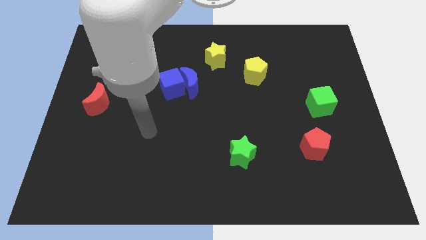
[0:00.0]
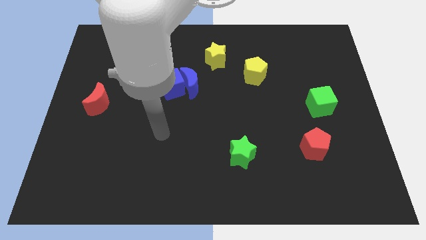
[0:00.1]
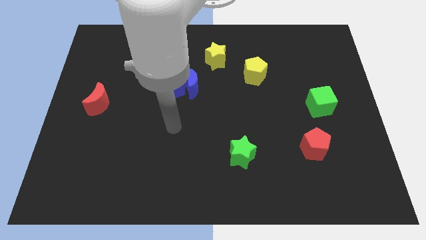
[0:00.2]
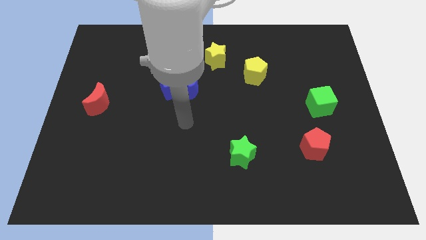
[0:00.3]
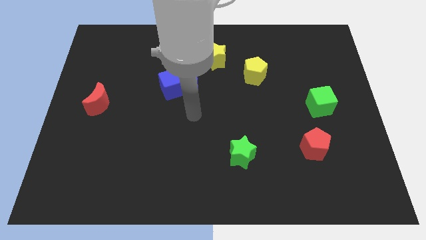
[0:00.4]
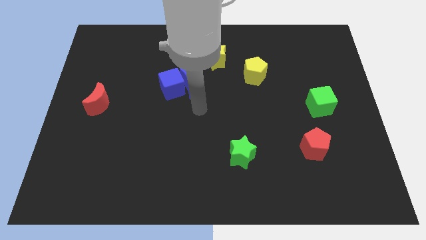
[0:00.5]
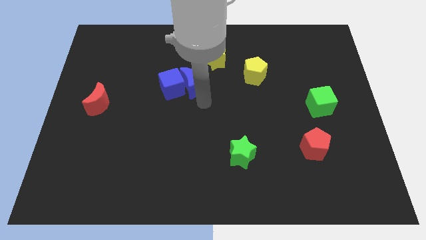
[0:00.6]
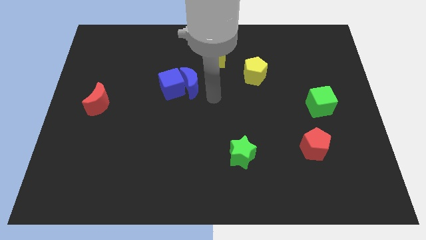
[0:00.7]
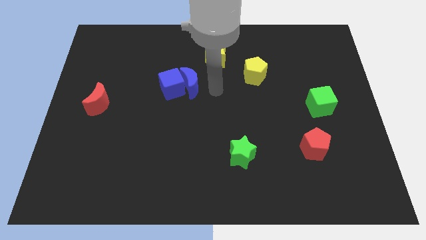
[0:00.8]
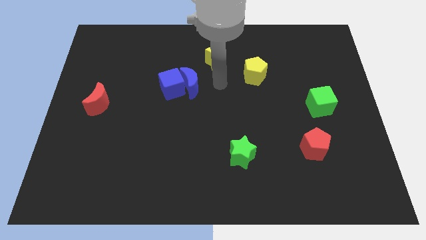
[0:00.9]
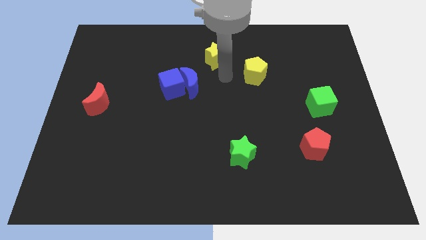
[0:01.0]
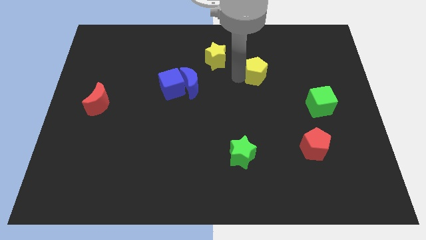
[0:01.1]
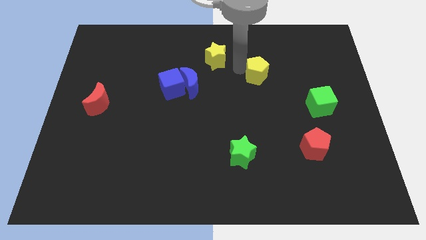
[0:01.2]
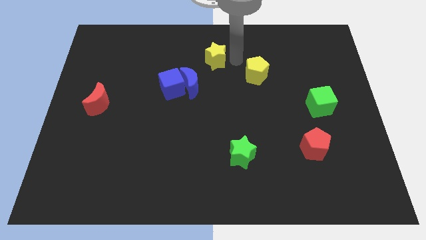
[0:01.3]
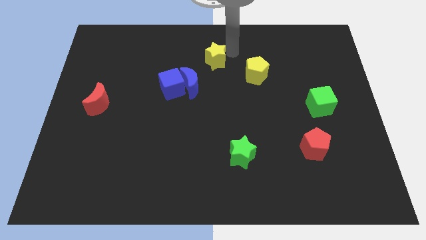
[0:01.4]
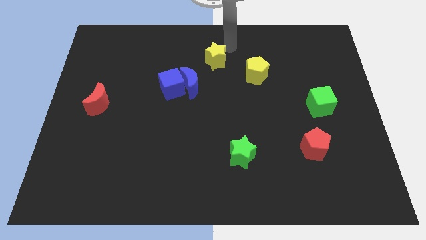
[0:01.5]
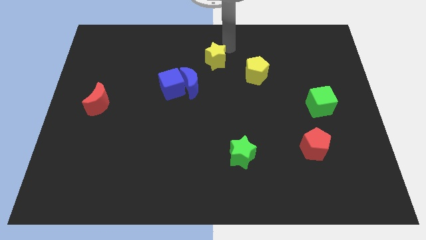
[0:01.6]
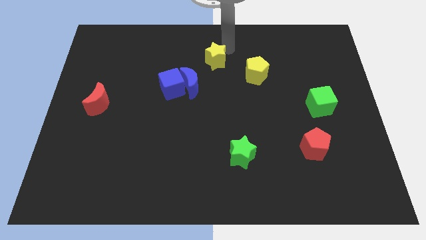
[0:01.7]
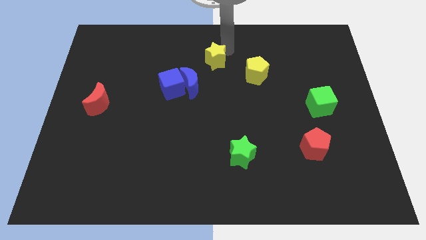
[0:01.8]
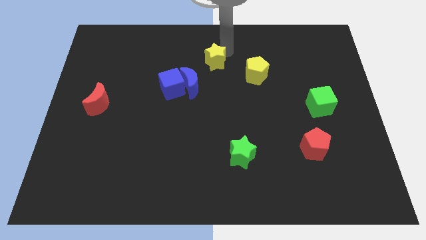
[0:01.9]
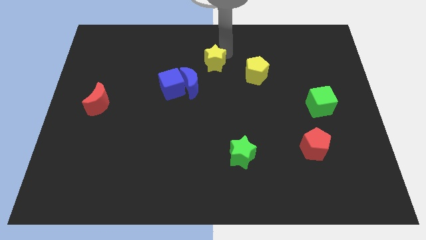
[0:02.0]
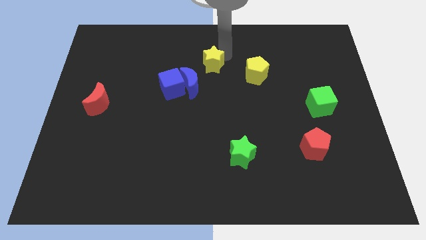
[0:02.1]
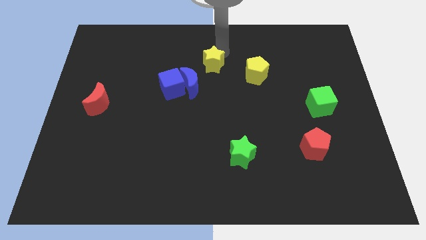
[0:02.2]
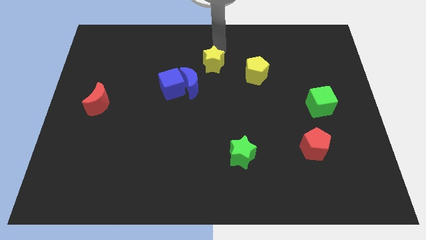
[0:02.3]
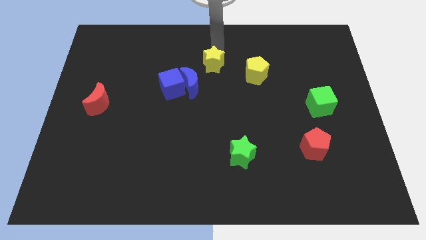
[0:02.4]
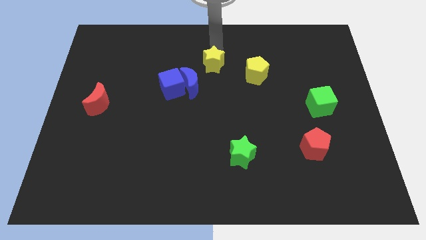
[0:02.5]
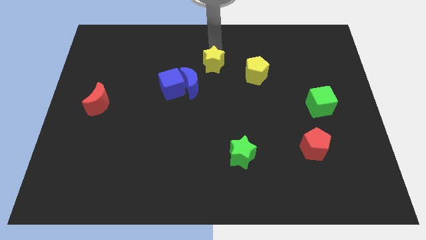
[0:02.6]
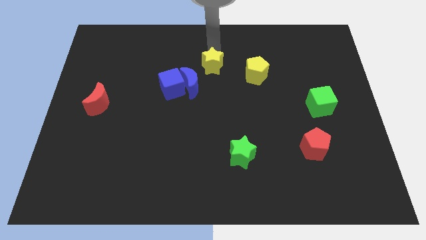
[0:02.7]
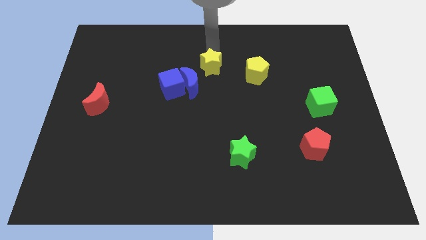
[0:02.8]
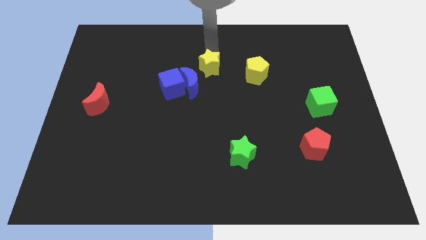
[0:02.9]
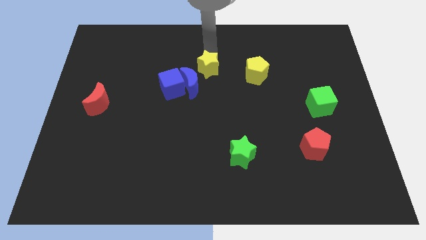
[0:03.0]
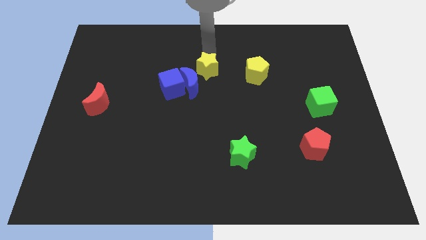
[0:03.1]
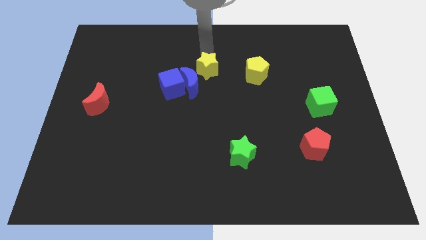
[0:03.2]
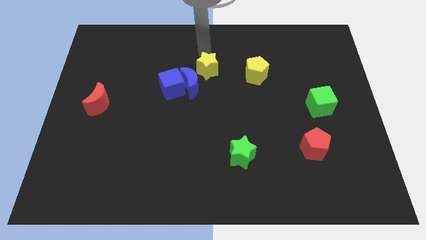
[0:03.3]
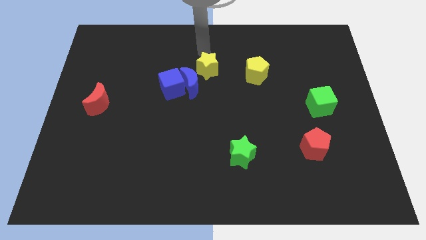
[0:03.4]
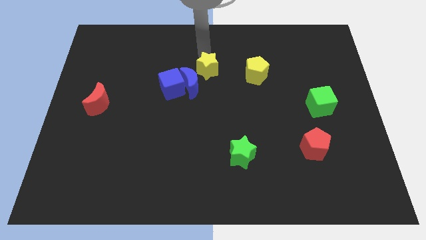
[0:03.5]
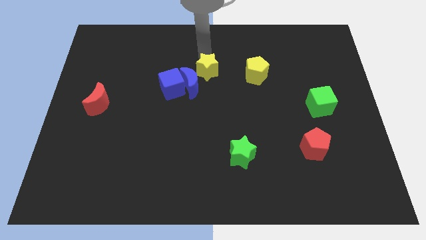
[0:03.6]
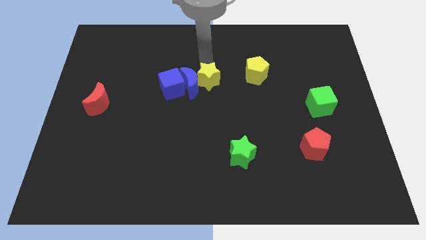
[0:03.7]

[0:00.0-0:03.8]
slide the yellow star down a little bit

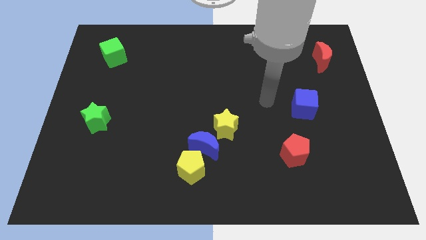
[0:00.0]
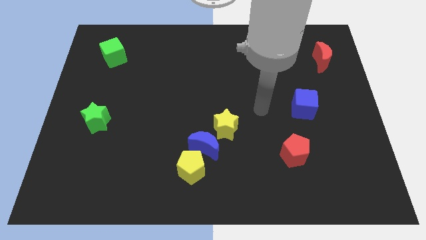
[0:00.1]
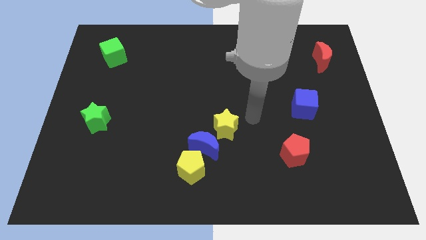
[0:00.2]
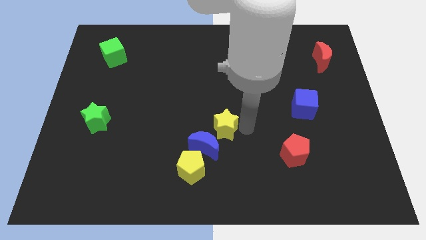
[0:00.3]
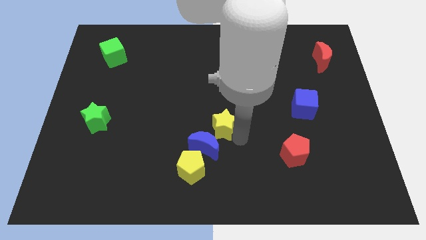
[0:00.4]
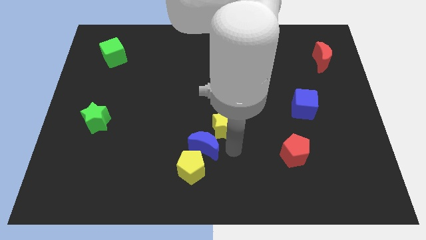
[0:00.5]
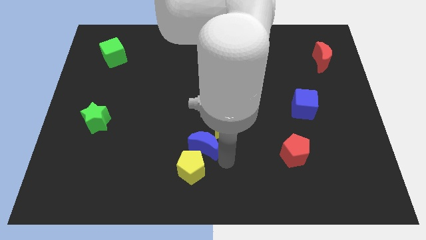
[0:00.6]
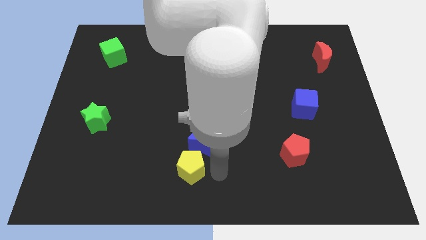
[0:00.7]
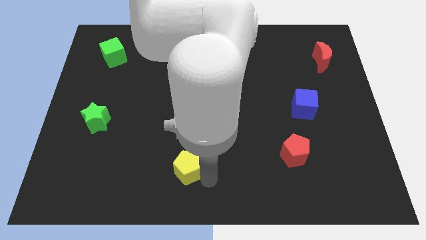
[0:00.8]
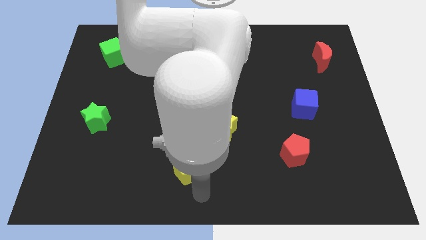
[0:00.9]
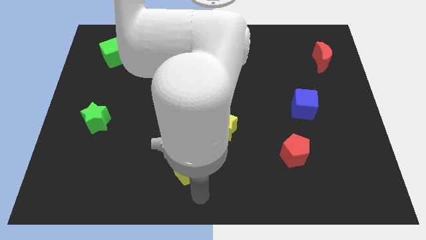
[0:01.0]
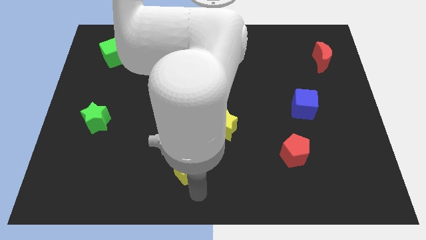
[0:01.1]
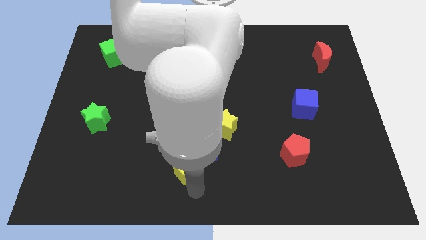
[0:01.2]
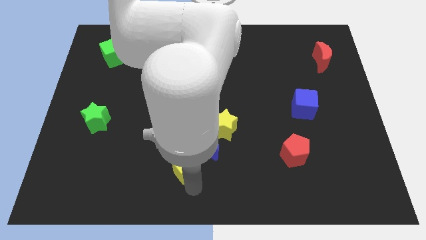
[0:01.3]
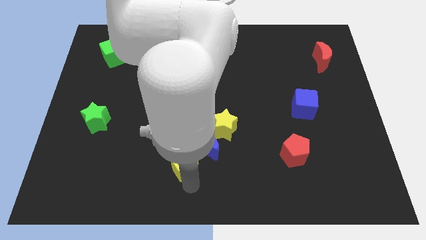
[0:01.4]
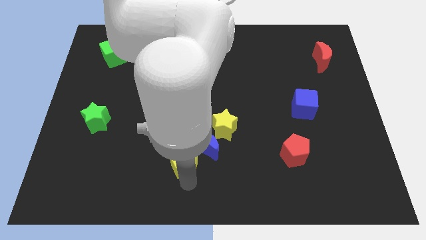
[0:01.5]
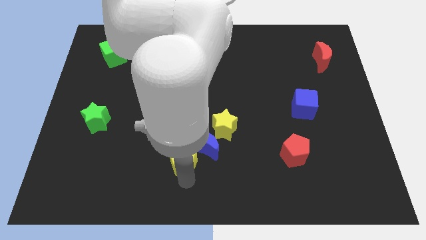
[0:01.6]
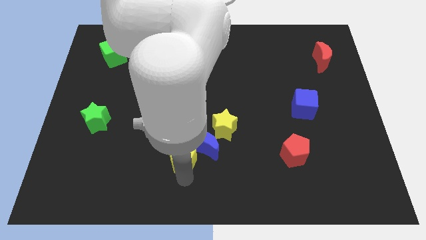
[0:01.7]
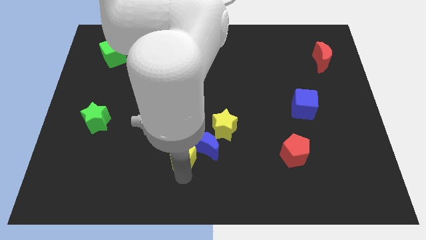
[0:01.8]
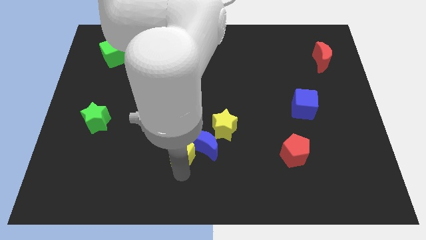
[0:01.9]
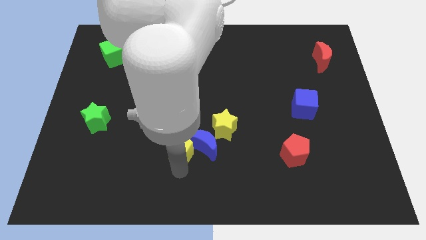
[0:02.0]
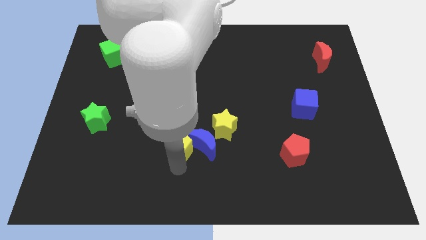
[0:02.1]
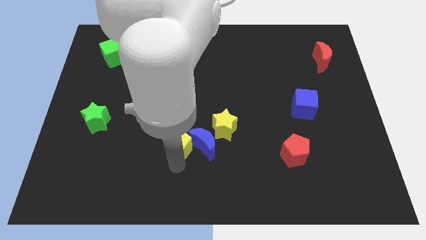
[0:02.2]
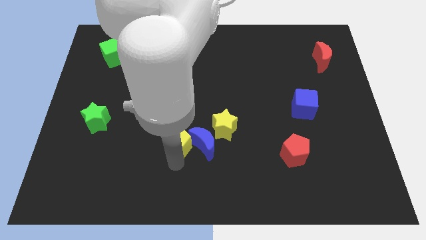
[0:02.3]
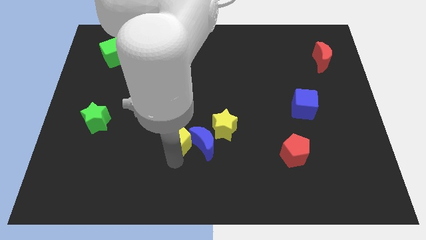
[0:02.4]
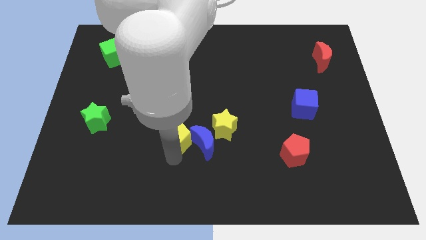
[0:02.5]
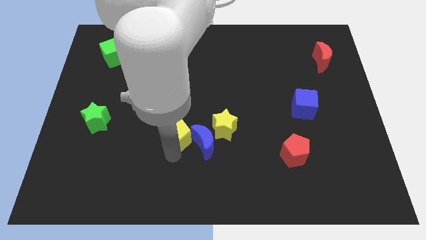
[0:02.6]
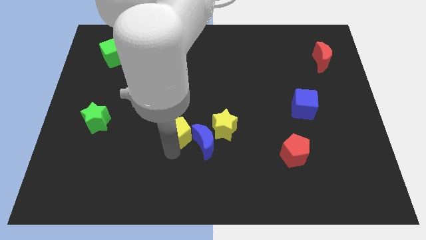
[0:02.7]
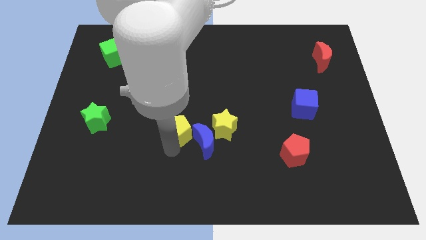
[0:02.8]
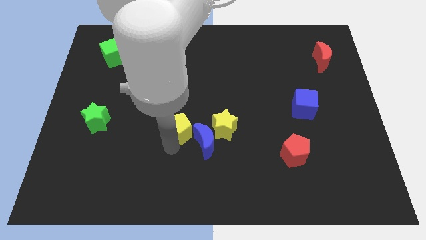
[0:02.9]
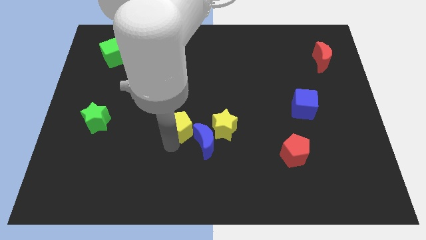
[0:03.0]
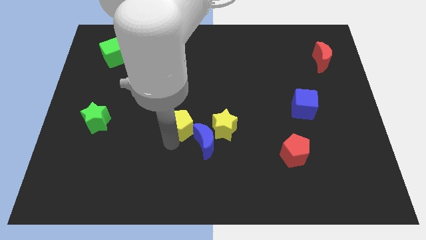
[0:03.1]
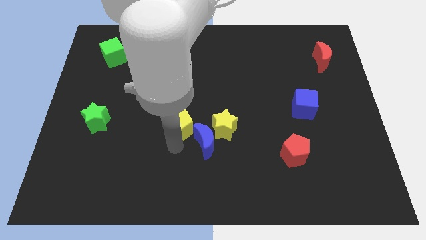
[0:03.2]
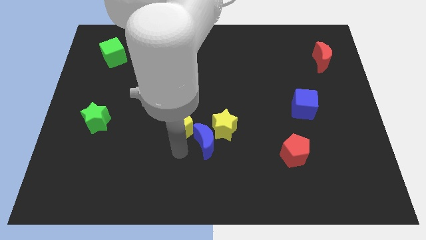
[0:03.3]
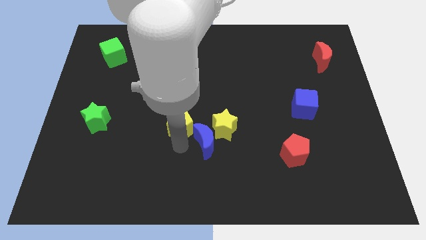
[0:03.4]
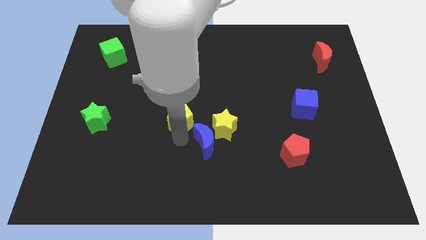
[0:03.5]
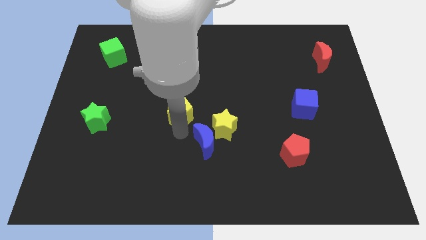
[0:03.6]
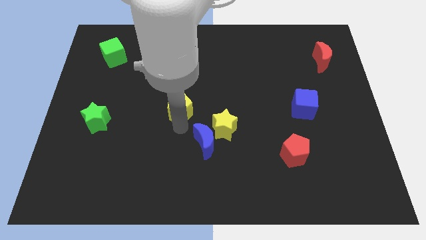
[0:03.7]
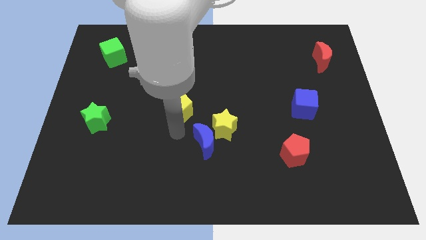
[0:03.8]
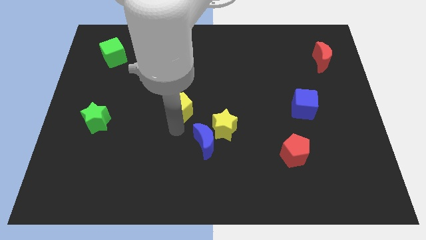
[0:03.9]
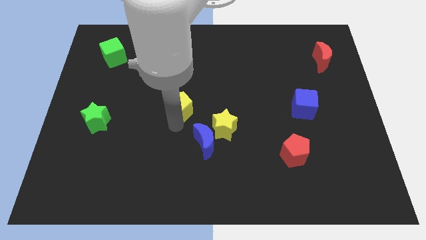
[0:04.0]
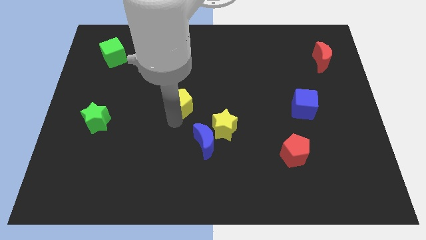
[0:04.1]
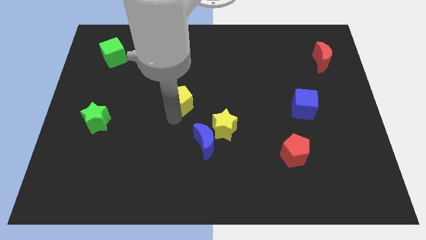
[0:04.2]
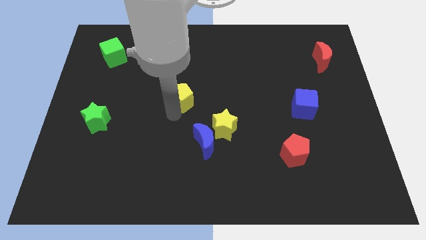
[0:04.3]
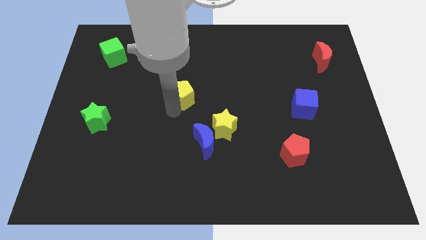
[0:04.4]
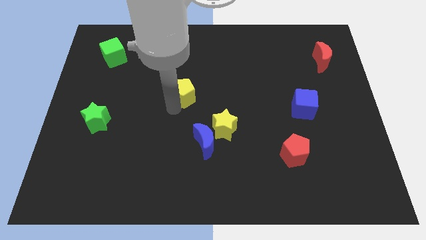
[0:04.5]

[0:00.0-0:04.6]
slide the yellow pentagon up
